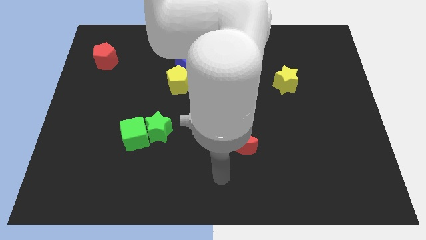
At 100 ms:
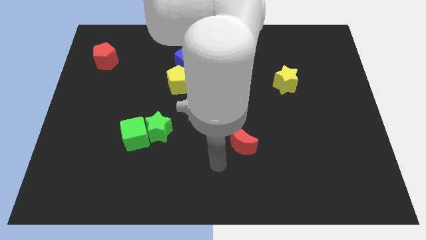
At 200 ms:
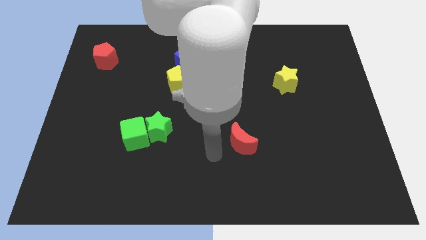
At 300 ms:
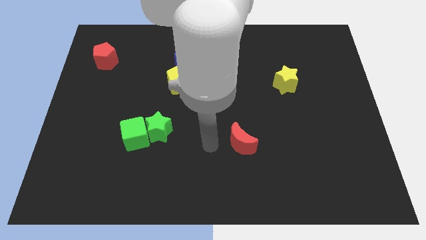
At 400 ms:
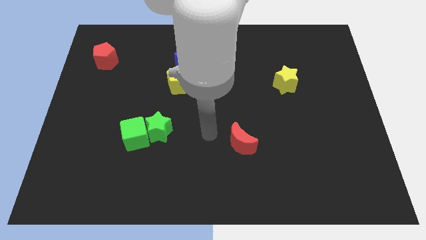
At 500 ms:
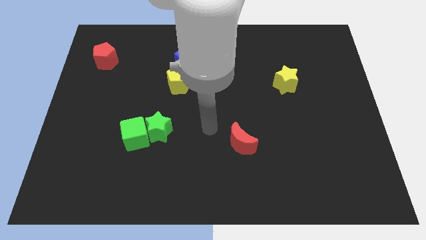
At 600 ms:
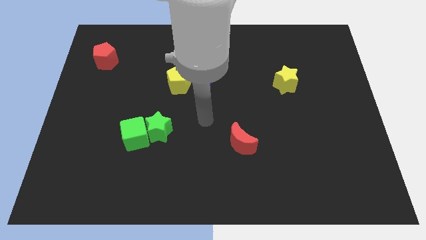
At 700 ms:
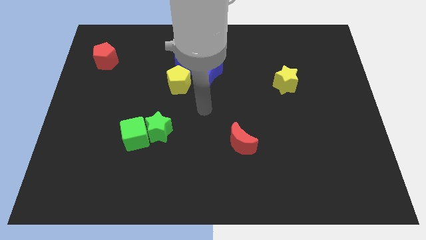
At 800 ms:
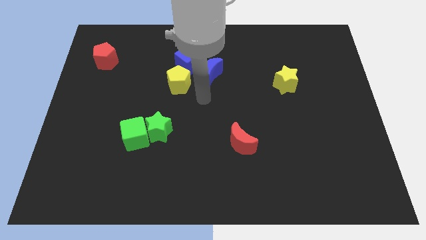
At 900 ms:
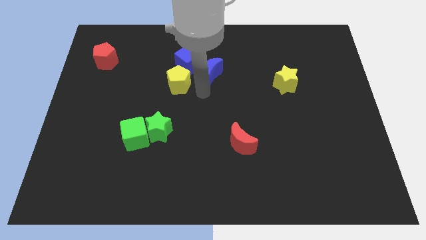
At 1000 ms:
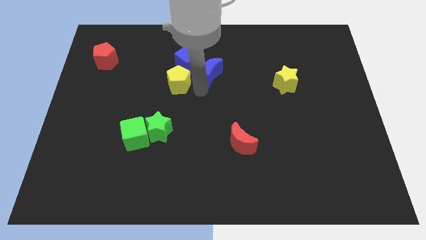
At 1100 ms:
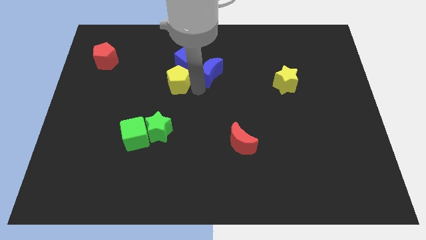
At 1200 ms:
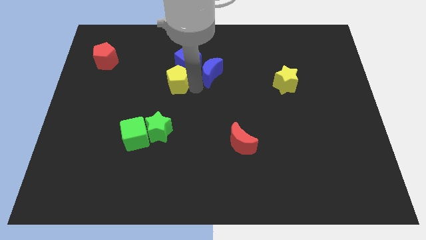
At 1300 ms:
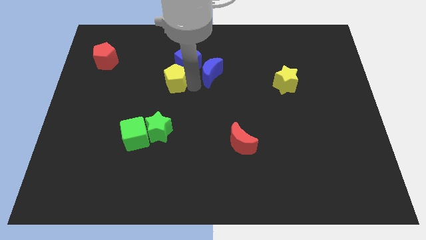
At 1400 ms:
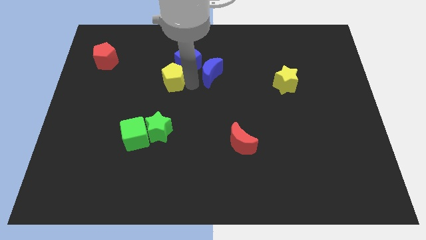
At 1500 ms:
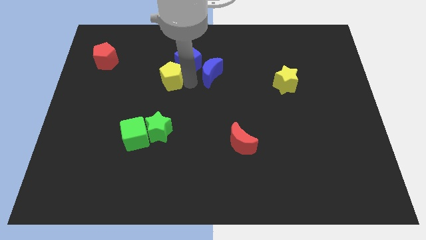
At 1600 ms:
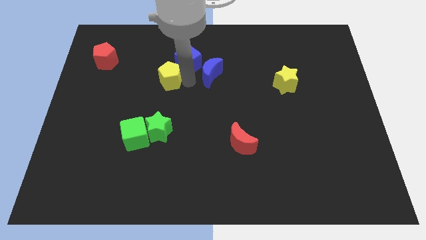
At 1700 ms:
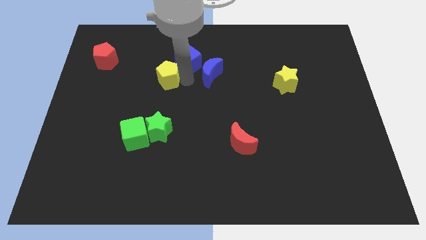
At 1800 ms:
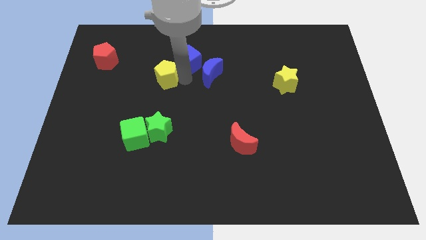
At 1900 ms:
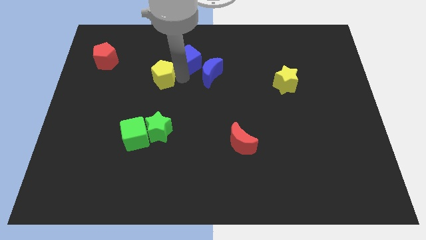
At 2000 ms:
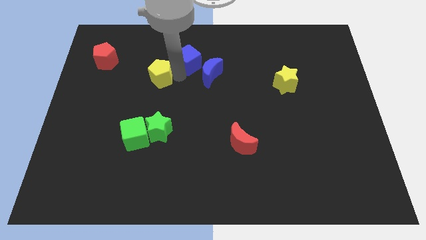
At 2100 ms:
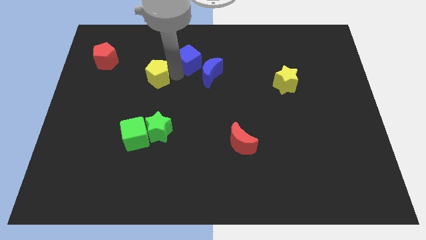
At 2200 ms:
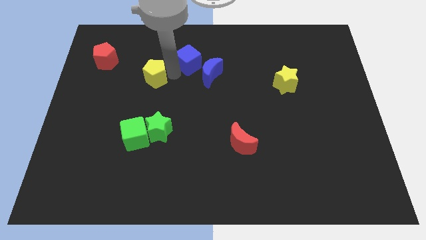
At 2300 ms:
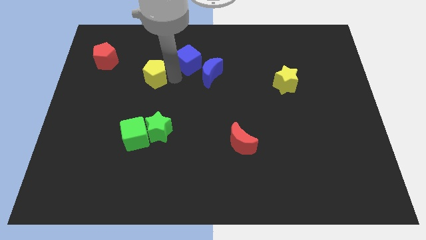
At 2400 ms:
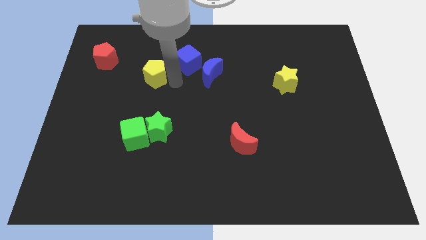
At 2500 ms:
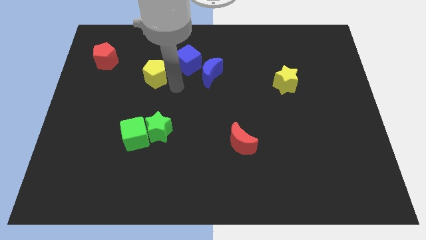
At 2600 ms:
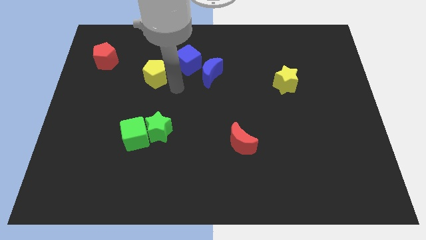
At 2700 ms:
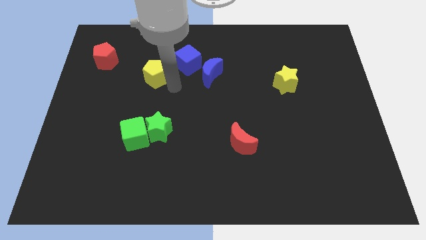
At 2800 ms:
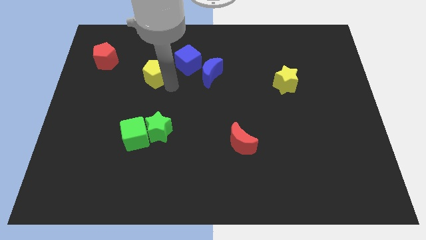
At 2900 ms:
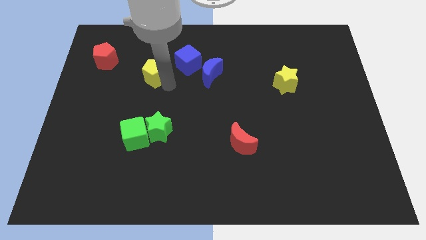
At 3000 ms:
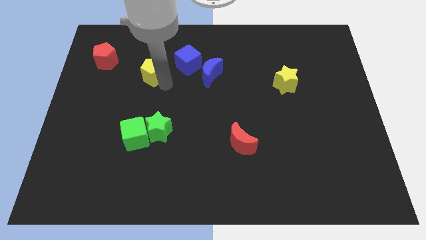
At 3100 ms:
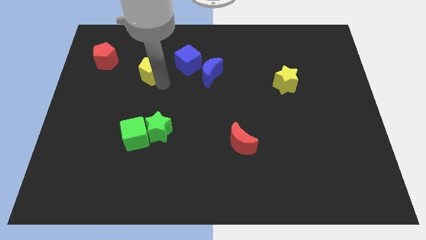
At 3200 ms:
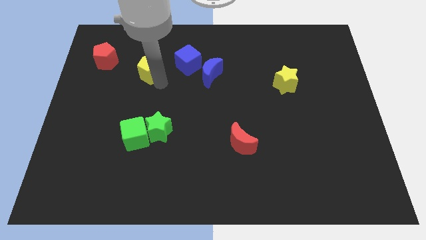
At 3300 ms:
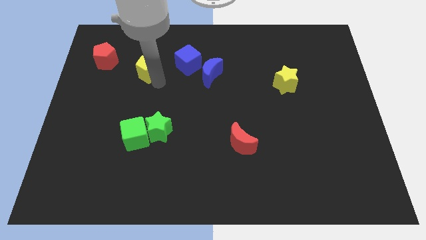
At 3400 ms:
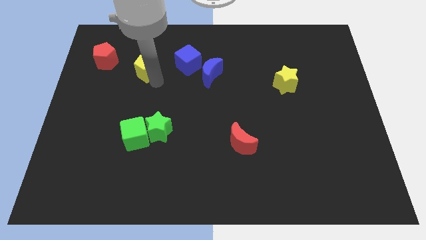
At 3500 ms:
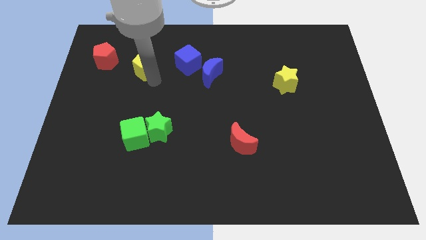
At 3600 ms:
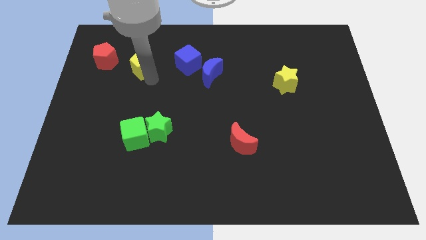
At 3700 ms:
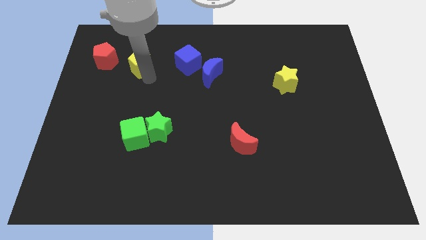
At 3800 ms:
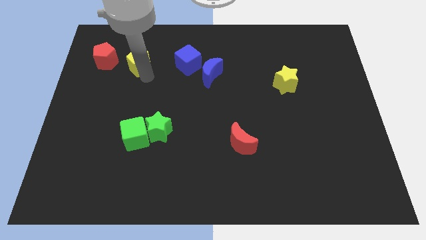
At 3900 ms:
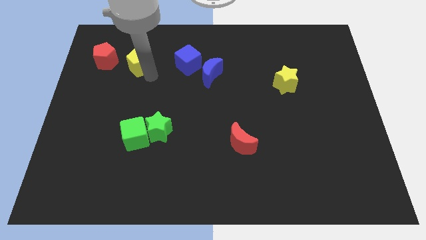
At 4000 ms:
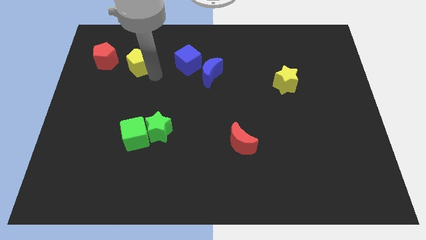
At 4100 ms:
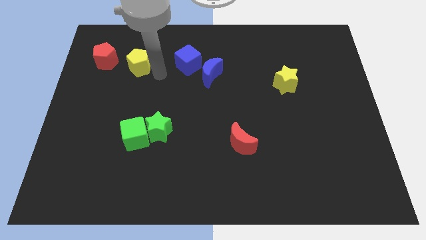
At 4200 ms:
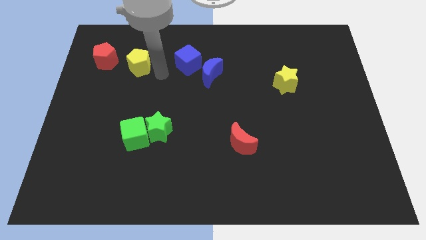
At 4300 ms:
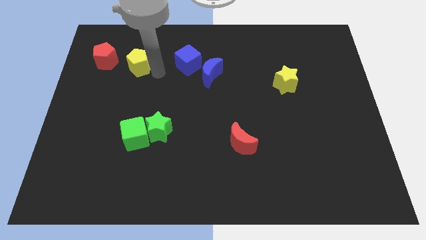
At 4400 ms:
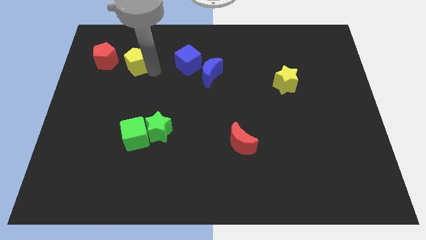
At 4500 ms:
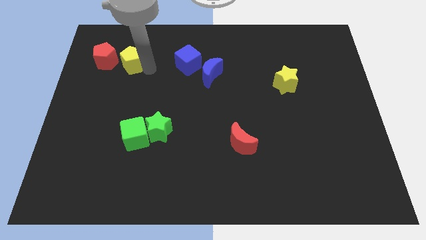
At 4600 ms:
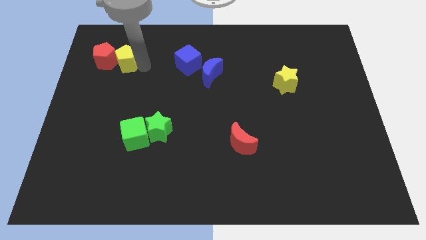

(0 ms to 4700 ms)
slide the yellow pentagon next to the red pentagon

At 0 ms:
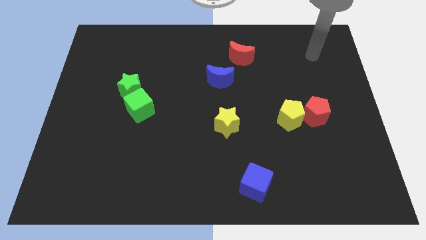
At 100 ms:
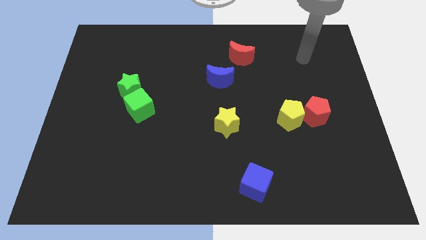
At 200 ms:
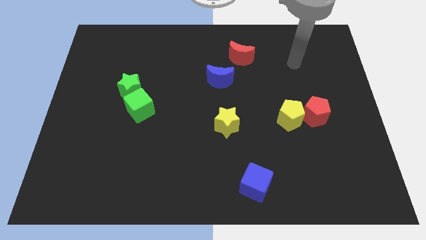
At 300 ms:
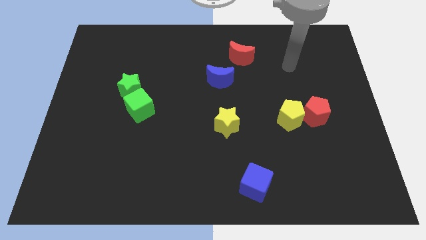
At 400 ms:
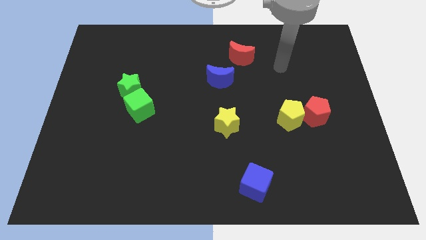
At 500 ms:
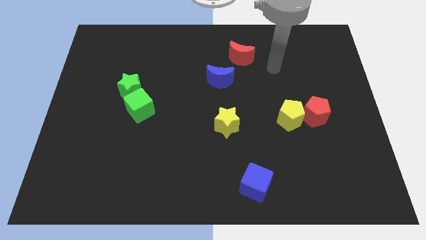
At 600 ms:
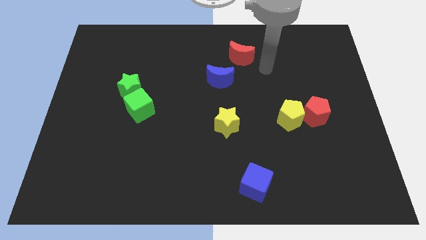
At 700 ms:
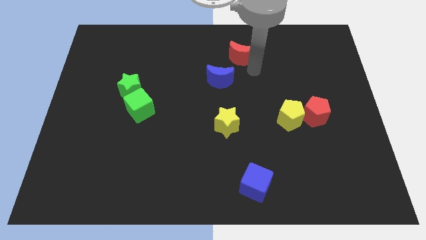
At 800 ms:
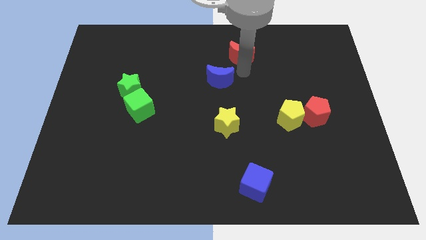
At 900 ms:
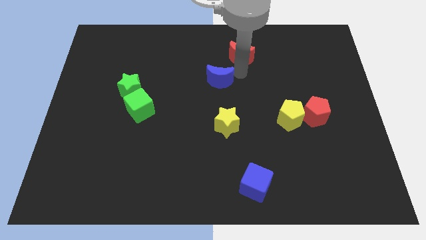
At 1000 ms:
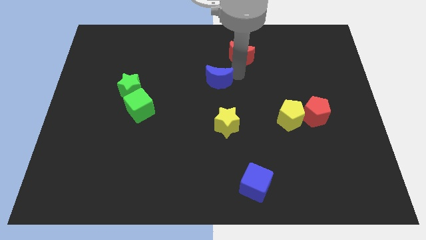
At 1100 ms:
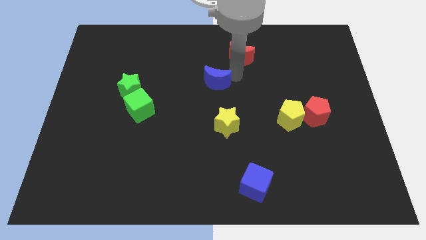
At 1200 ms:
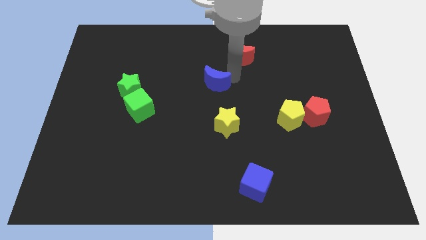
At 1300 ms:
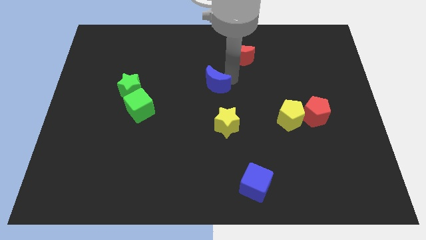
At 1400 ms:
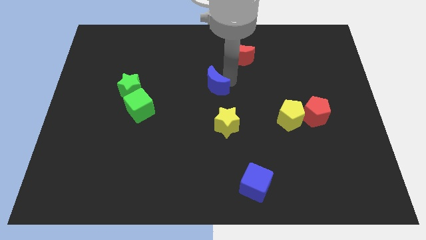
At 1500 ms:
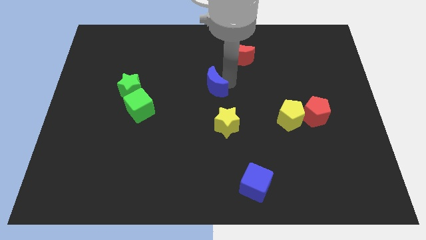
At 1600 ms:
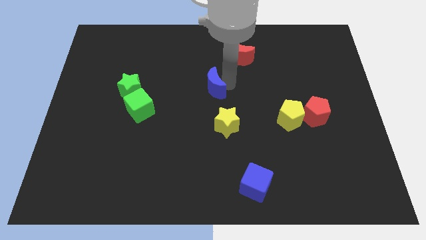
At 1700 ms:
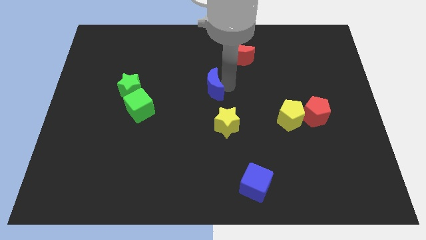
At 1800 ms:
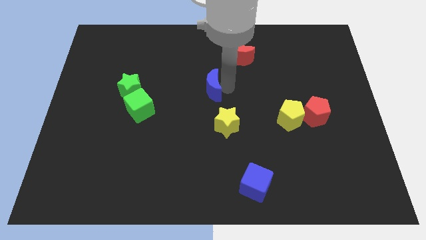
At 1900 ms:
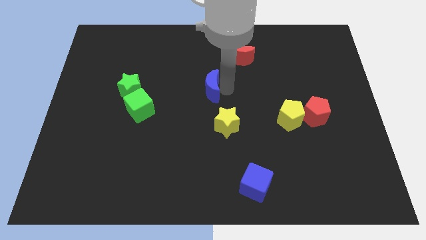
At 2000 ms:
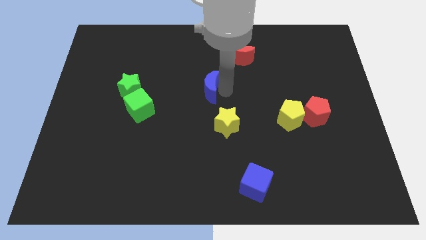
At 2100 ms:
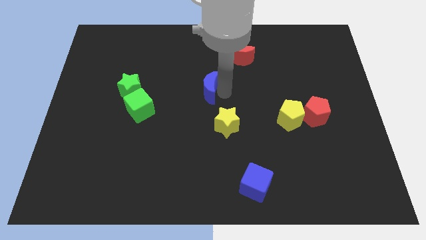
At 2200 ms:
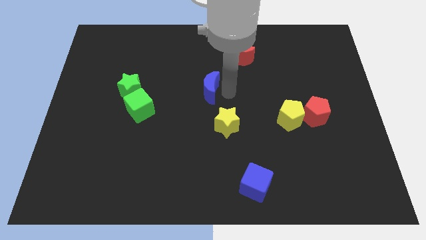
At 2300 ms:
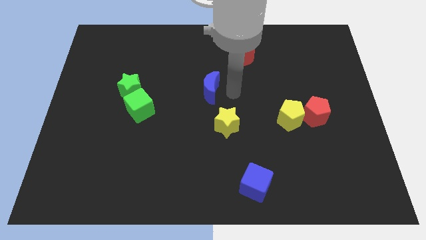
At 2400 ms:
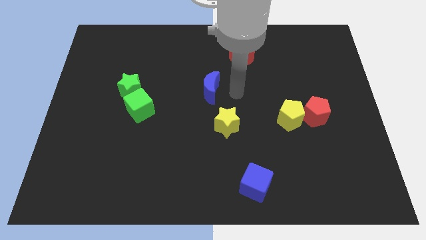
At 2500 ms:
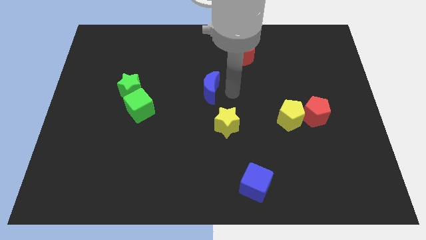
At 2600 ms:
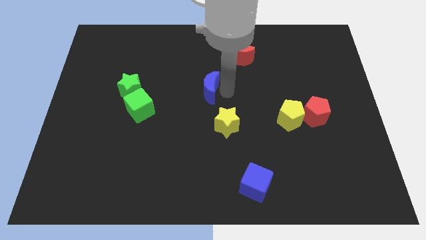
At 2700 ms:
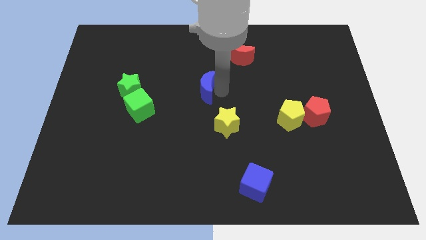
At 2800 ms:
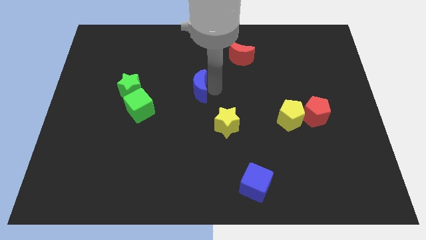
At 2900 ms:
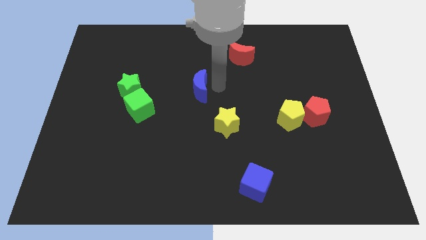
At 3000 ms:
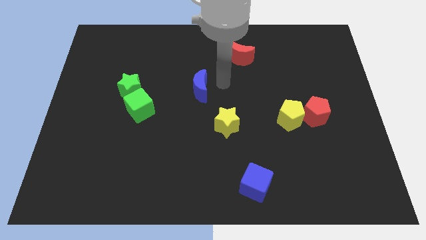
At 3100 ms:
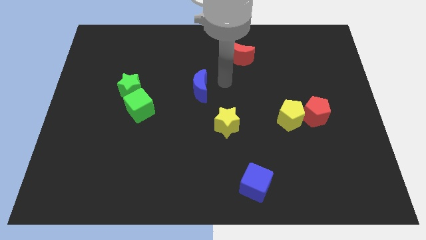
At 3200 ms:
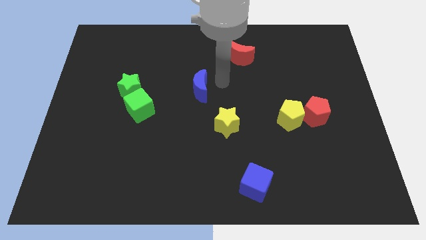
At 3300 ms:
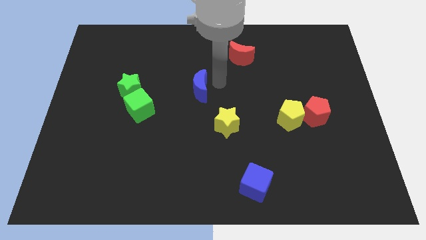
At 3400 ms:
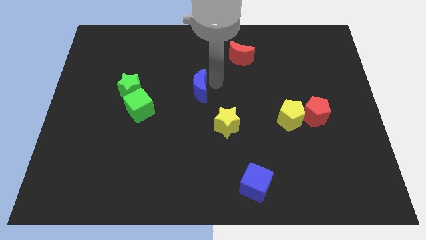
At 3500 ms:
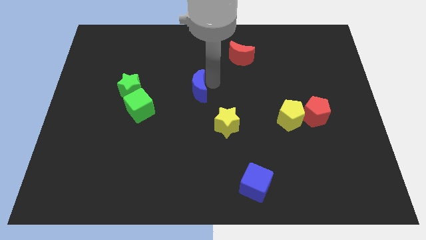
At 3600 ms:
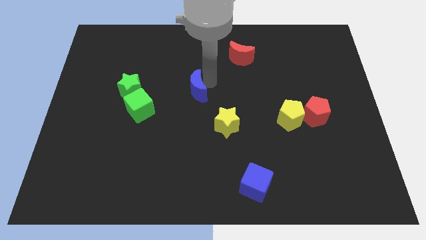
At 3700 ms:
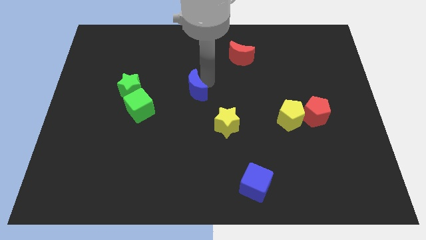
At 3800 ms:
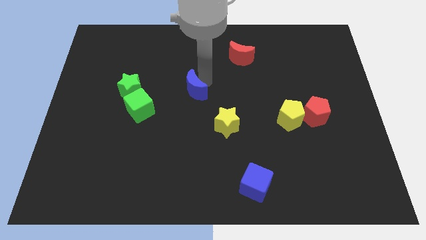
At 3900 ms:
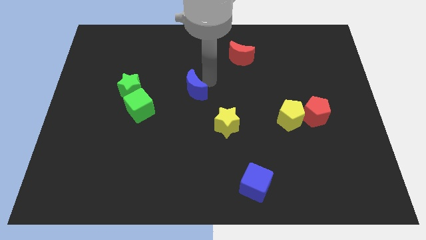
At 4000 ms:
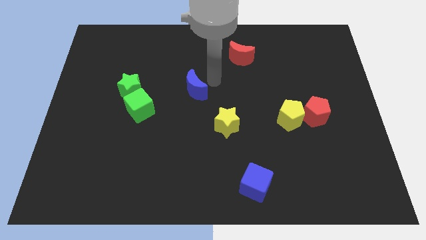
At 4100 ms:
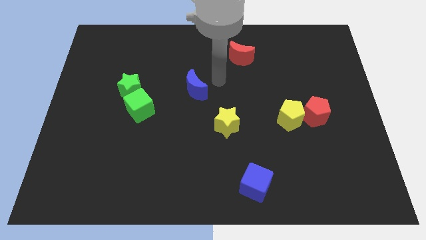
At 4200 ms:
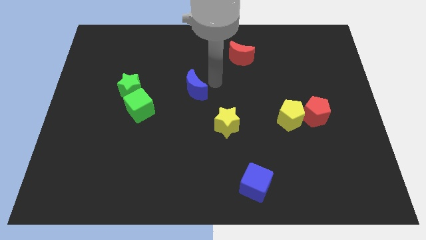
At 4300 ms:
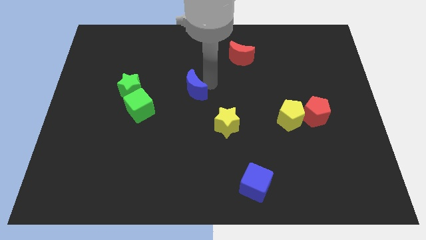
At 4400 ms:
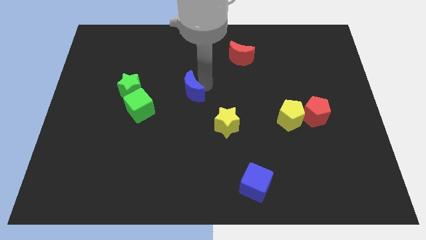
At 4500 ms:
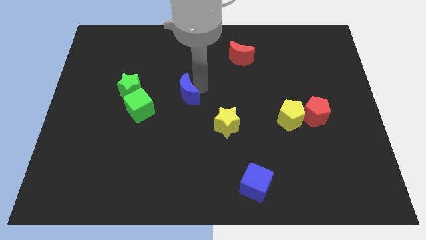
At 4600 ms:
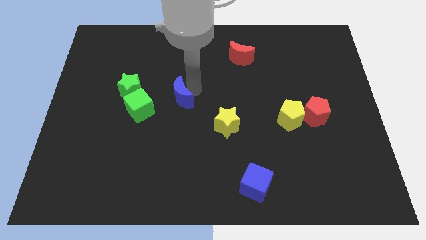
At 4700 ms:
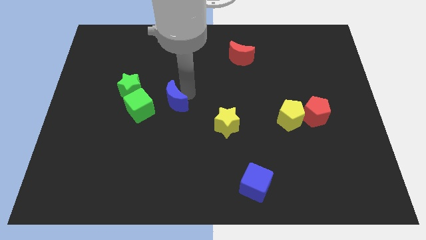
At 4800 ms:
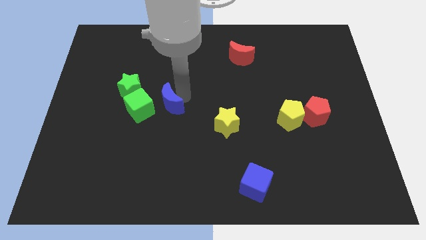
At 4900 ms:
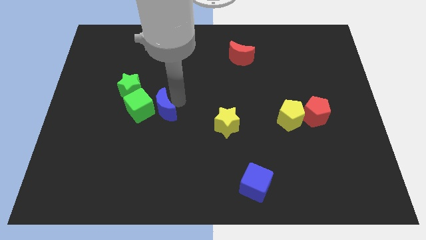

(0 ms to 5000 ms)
move the blue moon to the green cube
